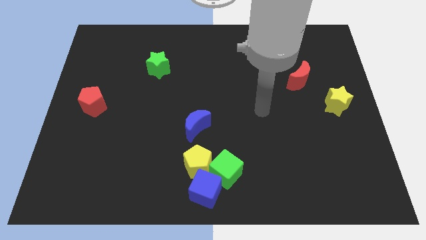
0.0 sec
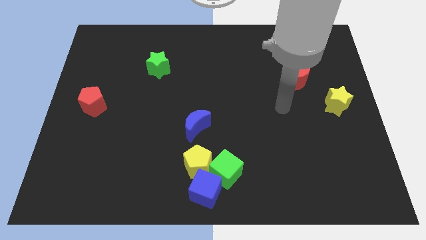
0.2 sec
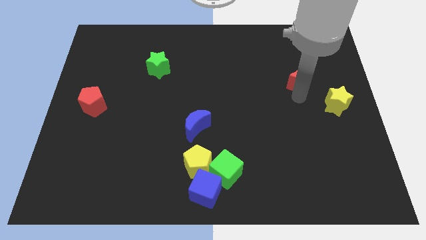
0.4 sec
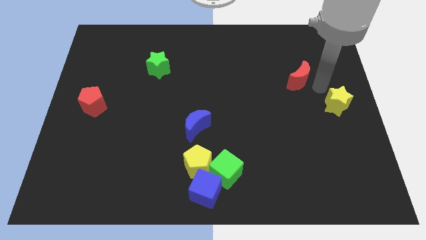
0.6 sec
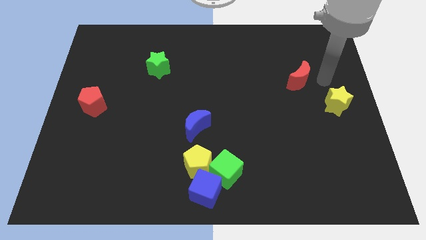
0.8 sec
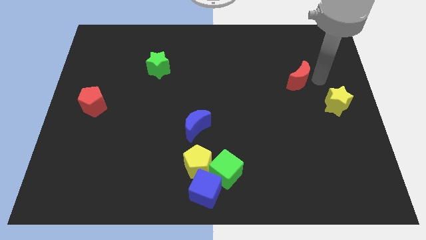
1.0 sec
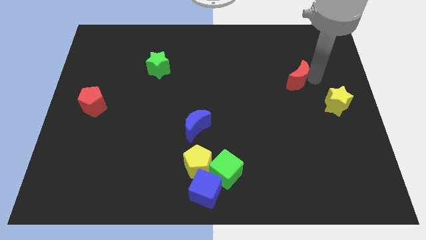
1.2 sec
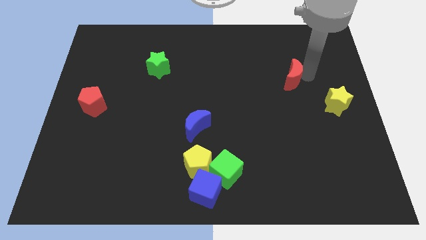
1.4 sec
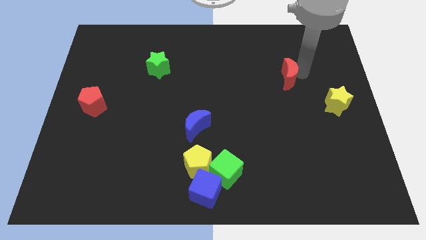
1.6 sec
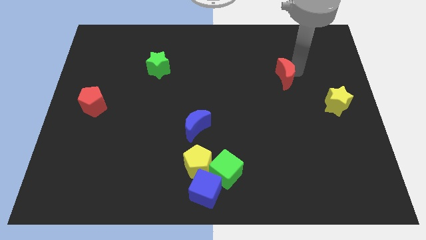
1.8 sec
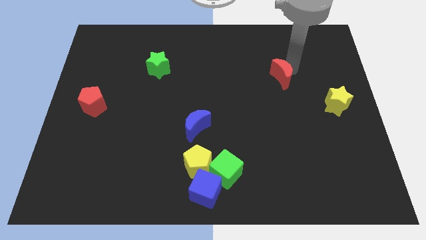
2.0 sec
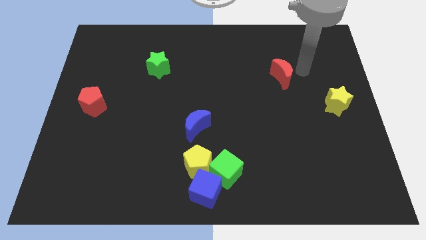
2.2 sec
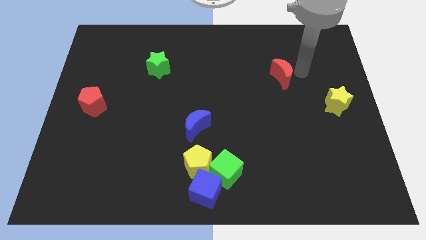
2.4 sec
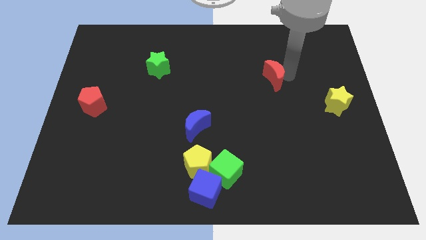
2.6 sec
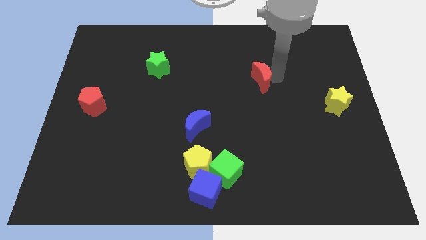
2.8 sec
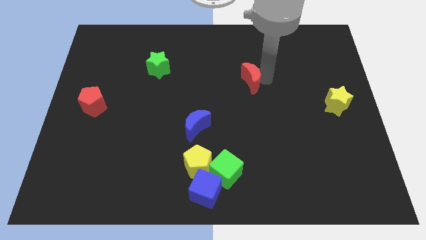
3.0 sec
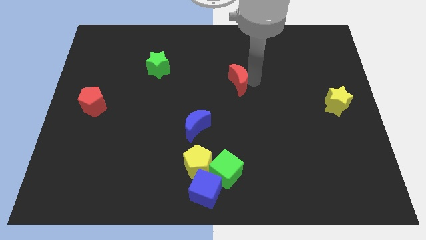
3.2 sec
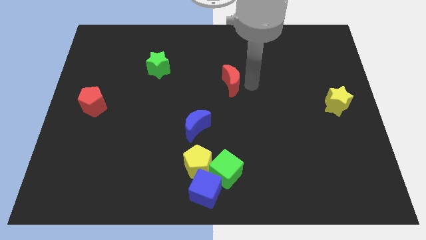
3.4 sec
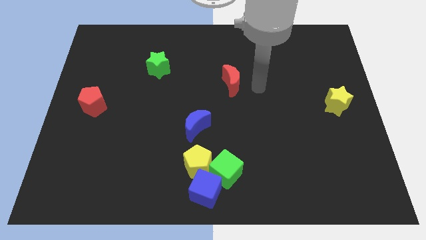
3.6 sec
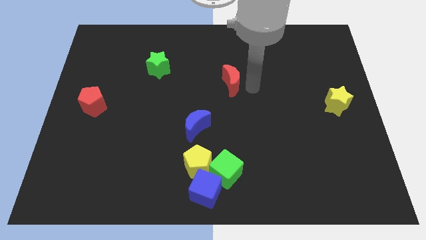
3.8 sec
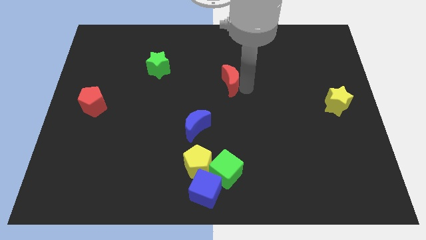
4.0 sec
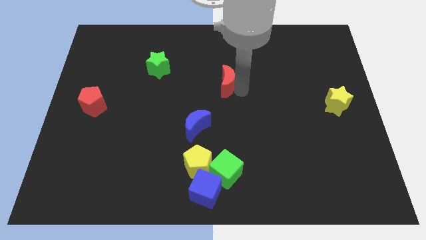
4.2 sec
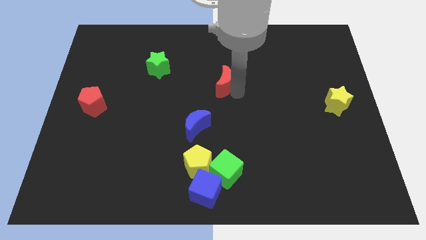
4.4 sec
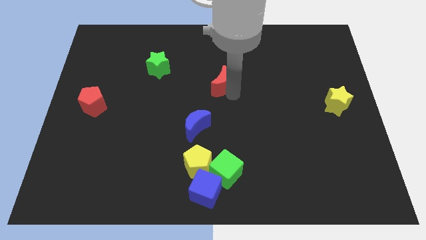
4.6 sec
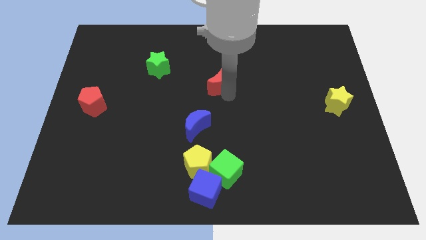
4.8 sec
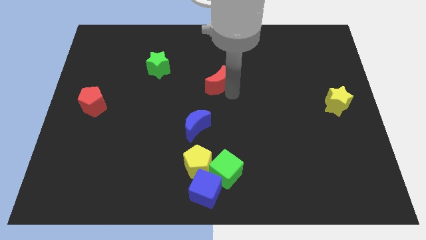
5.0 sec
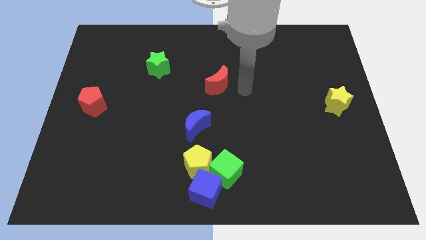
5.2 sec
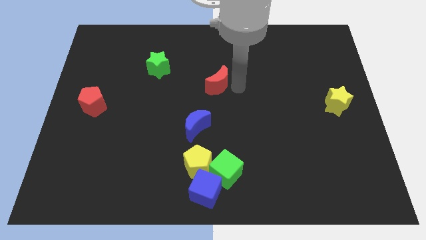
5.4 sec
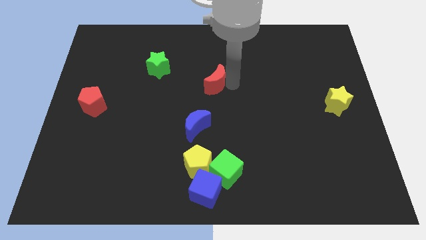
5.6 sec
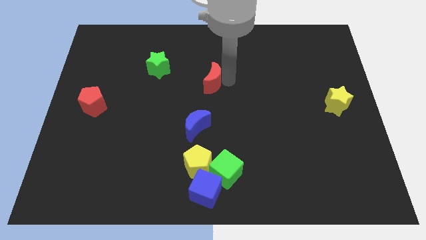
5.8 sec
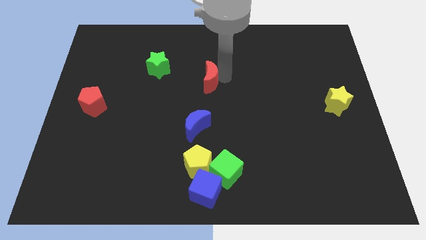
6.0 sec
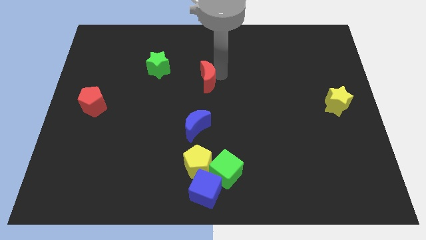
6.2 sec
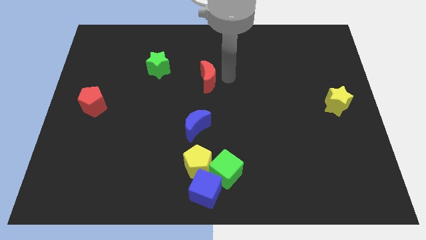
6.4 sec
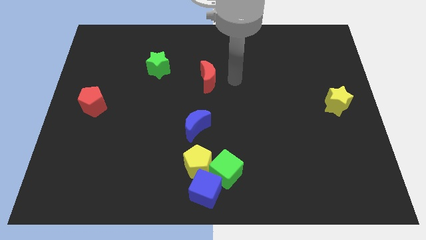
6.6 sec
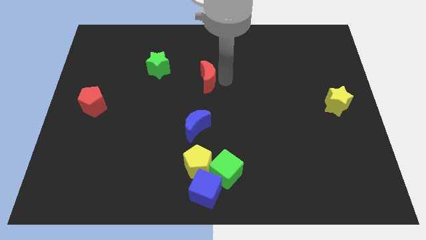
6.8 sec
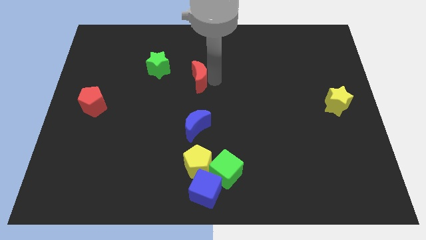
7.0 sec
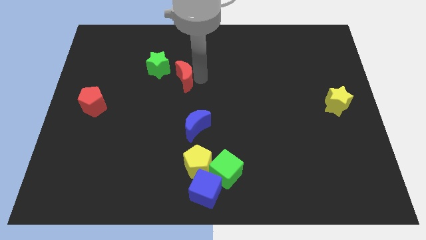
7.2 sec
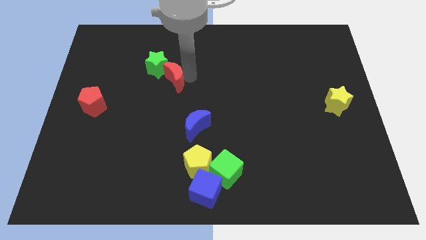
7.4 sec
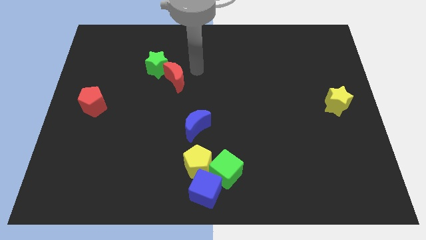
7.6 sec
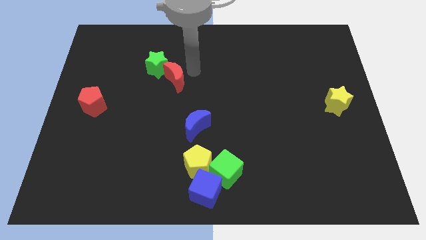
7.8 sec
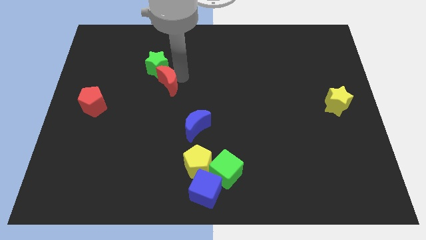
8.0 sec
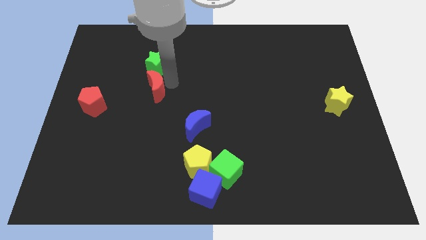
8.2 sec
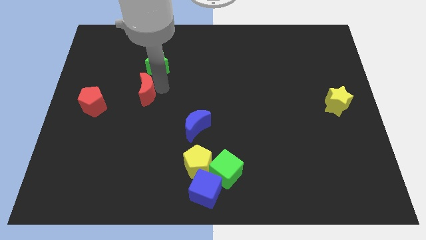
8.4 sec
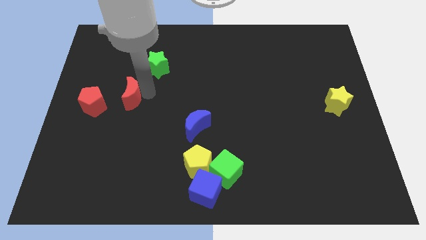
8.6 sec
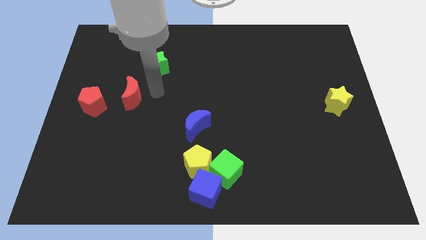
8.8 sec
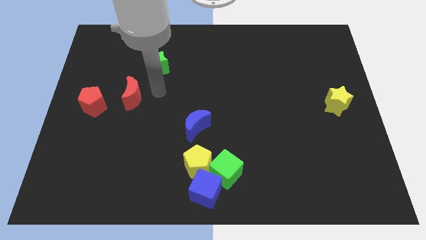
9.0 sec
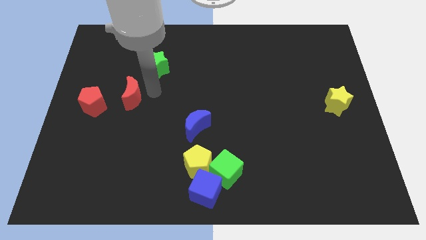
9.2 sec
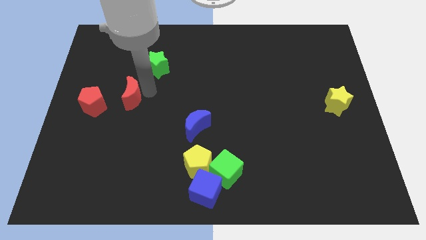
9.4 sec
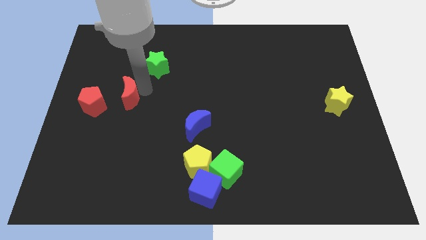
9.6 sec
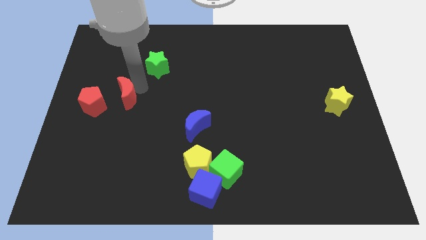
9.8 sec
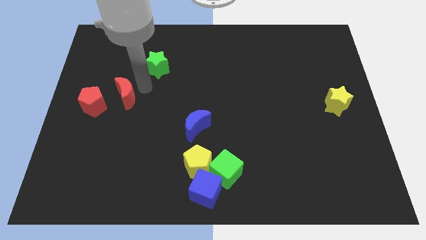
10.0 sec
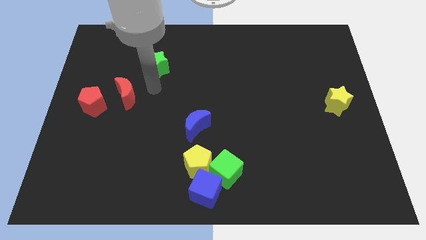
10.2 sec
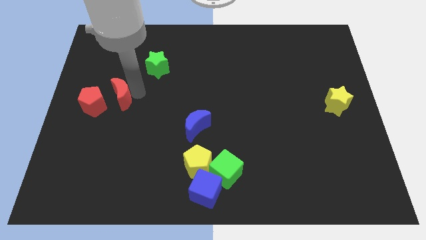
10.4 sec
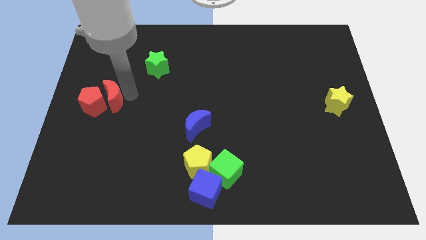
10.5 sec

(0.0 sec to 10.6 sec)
move the red moon to the red pentagon
